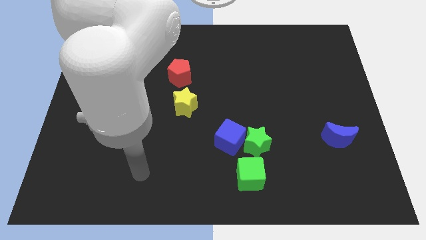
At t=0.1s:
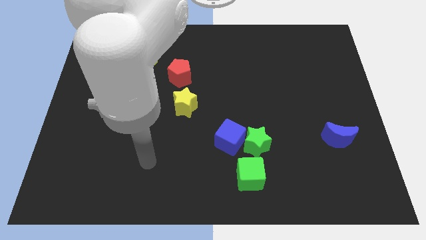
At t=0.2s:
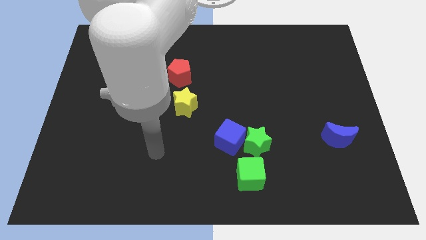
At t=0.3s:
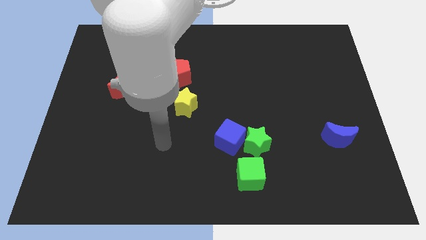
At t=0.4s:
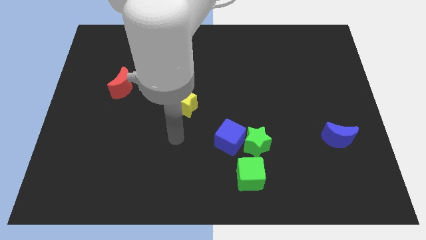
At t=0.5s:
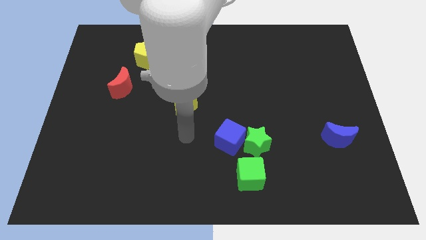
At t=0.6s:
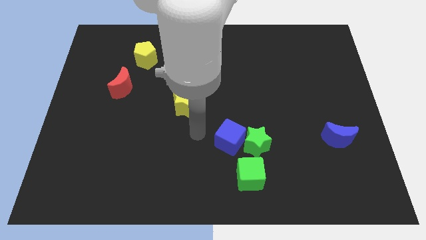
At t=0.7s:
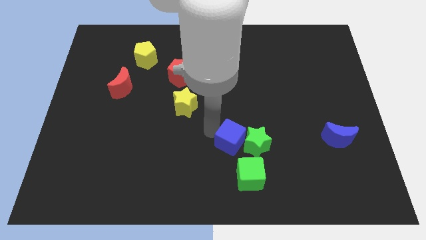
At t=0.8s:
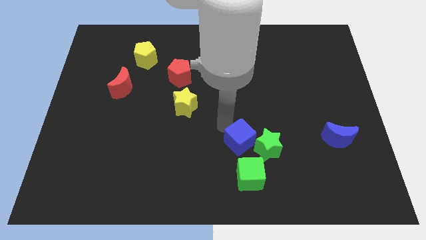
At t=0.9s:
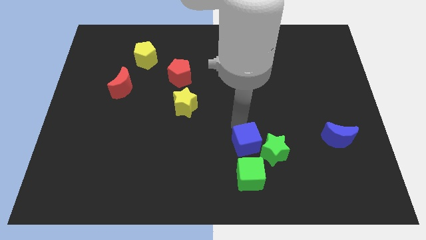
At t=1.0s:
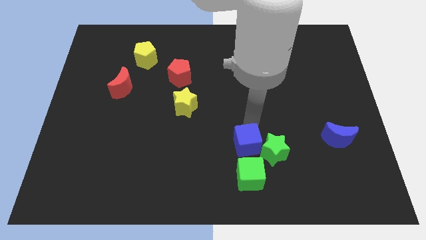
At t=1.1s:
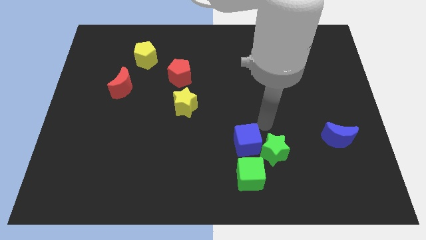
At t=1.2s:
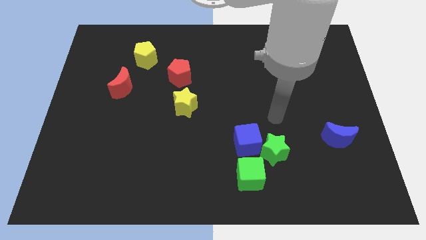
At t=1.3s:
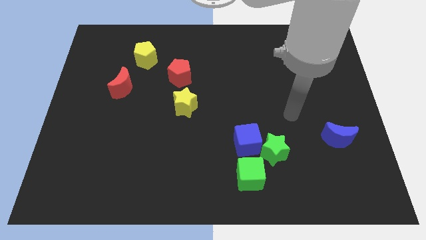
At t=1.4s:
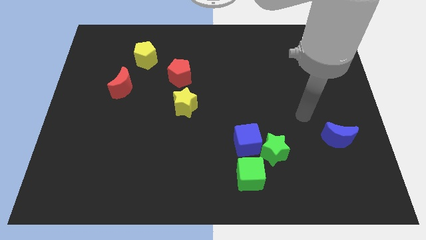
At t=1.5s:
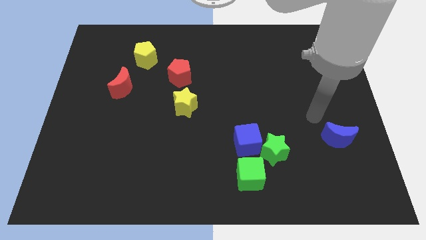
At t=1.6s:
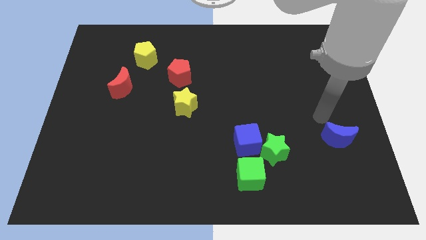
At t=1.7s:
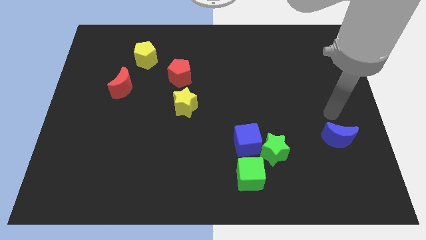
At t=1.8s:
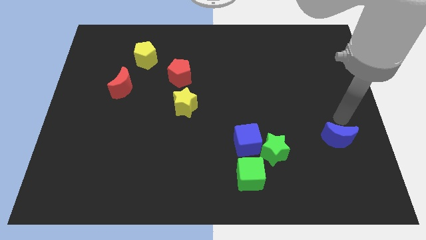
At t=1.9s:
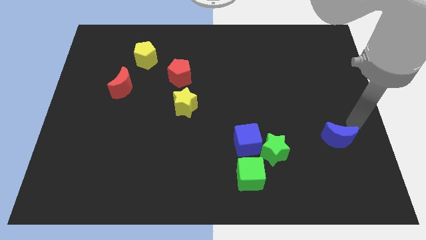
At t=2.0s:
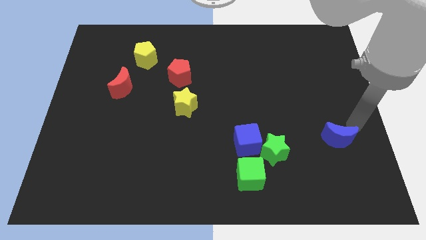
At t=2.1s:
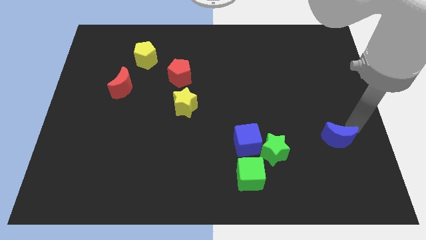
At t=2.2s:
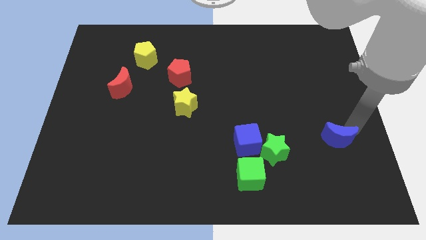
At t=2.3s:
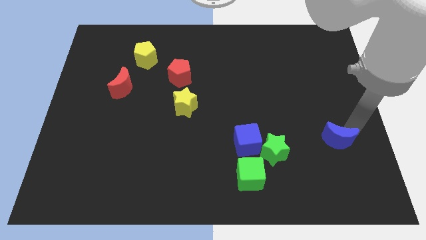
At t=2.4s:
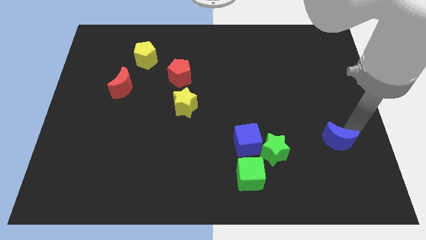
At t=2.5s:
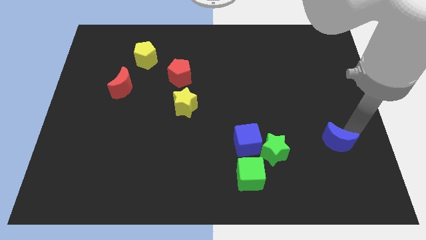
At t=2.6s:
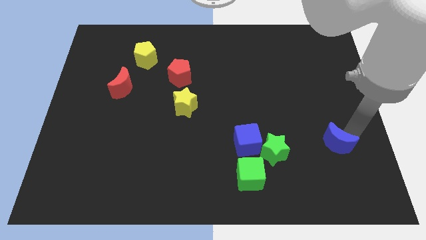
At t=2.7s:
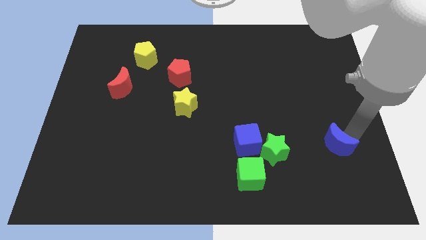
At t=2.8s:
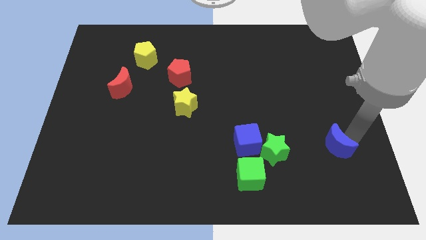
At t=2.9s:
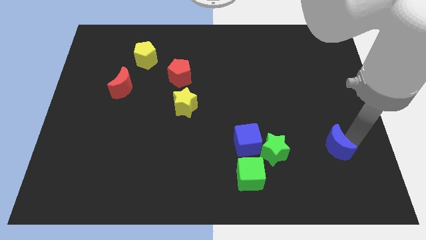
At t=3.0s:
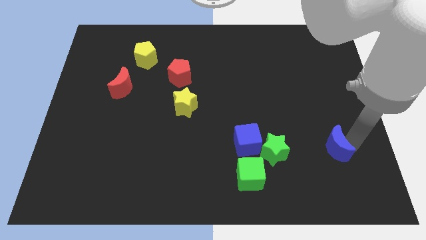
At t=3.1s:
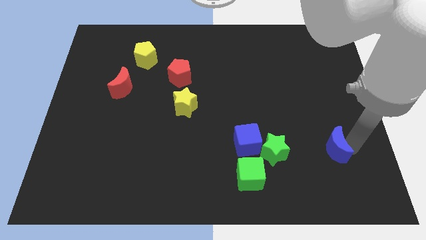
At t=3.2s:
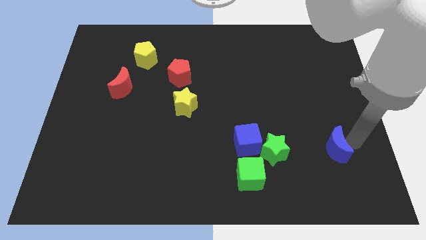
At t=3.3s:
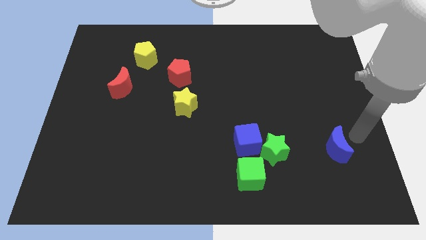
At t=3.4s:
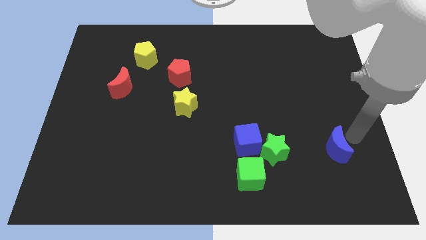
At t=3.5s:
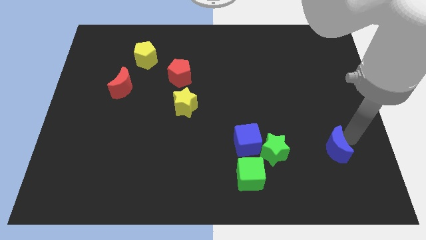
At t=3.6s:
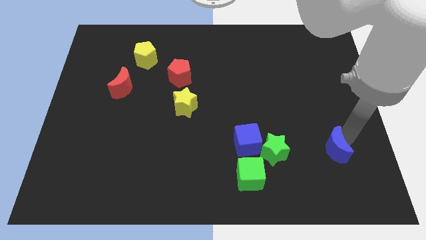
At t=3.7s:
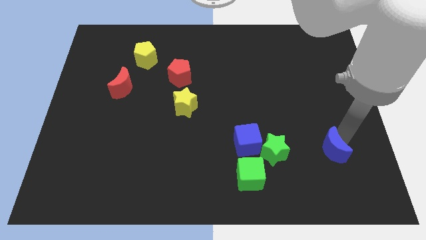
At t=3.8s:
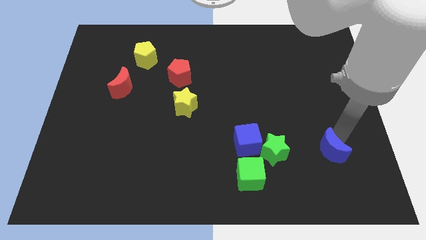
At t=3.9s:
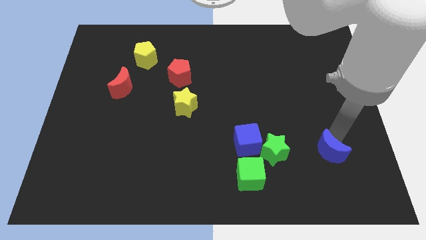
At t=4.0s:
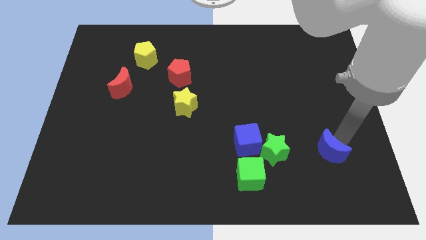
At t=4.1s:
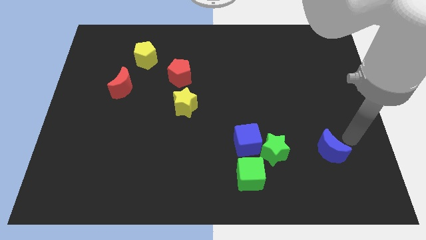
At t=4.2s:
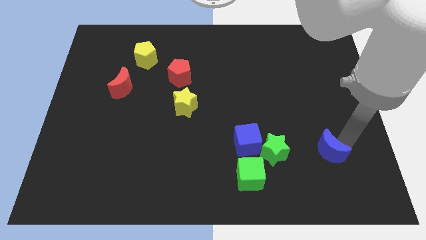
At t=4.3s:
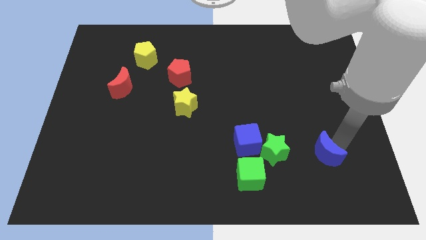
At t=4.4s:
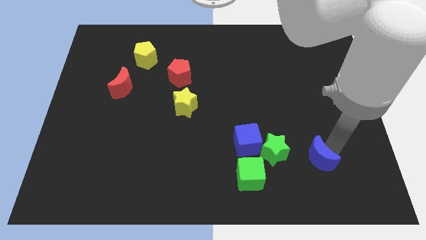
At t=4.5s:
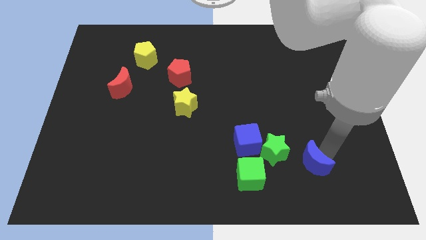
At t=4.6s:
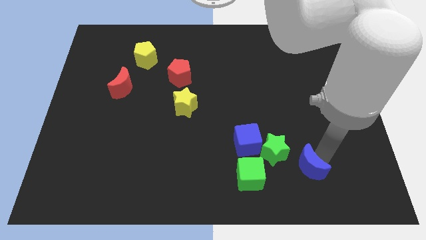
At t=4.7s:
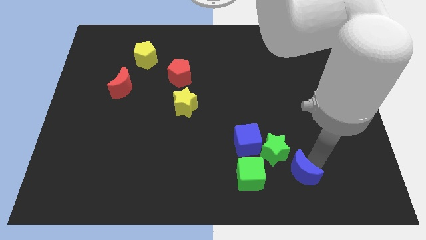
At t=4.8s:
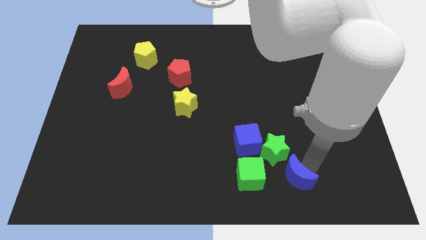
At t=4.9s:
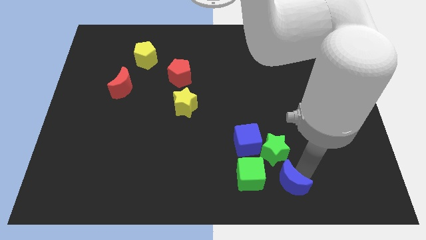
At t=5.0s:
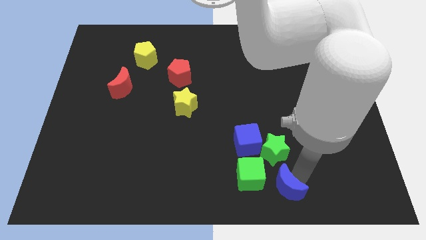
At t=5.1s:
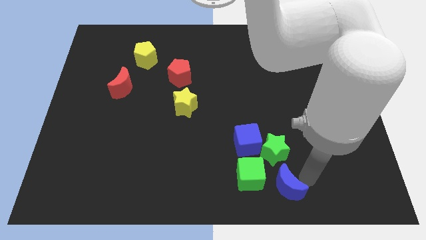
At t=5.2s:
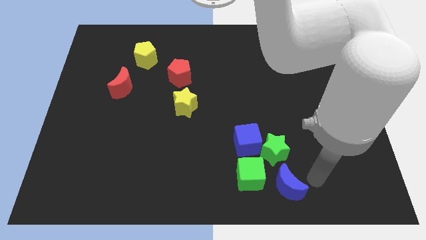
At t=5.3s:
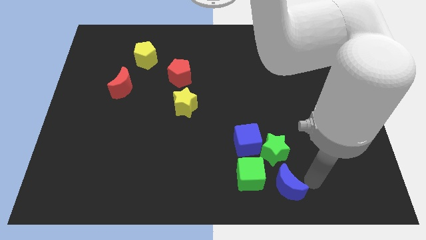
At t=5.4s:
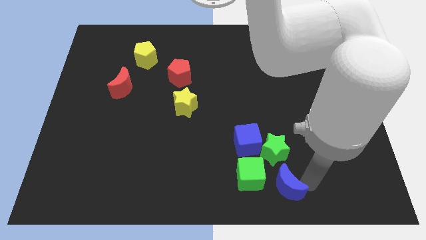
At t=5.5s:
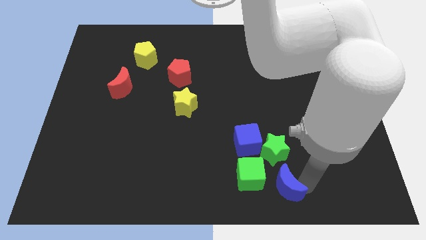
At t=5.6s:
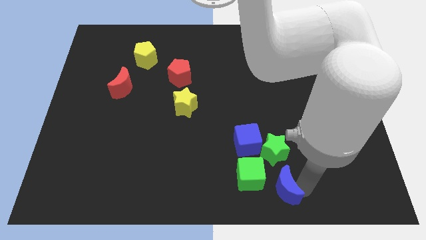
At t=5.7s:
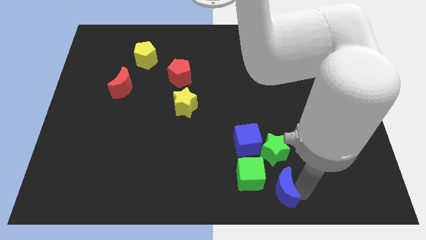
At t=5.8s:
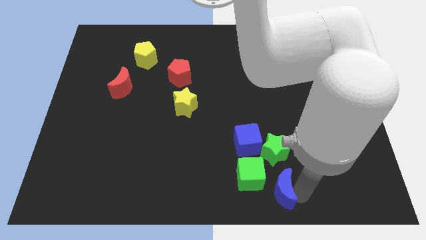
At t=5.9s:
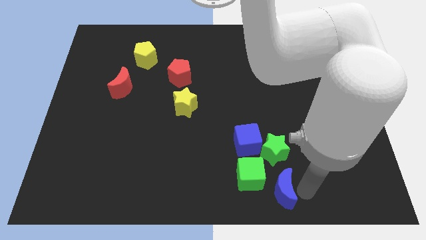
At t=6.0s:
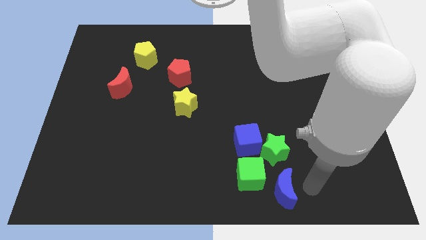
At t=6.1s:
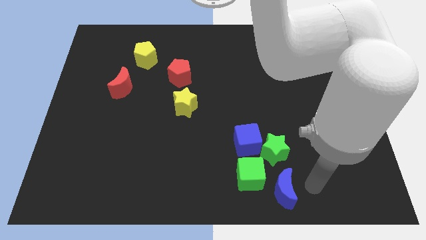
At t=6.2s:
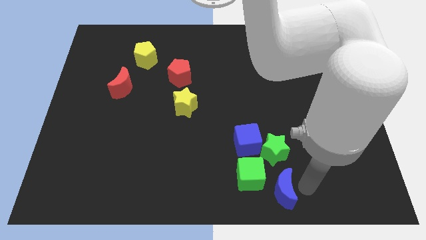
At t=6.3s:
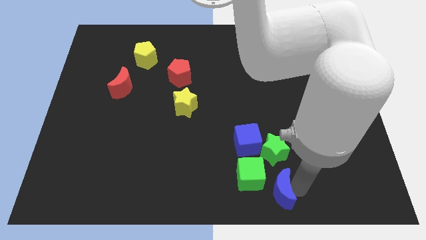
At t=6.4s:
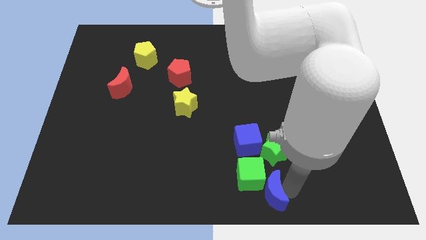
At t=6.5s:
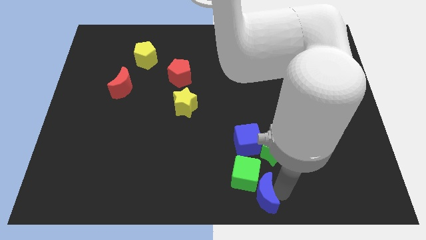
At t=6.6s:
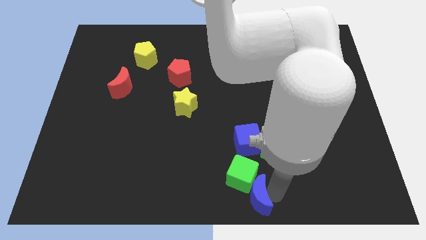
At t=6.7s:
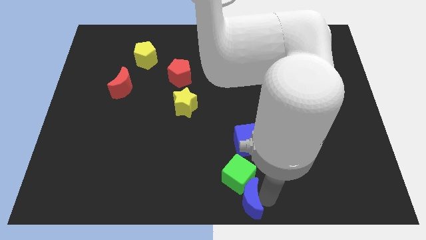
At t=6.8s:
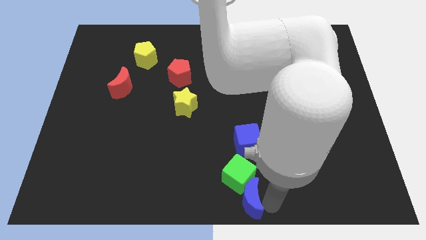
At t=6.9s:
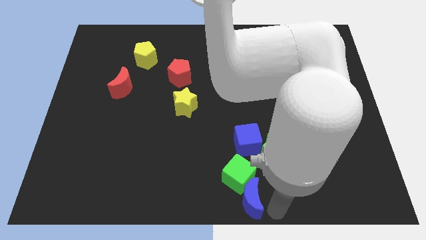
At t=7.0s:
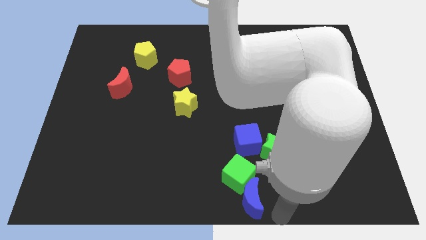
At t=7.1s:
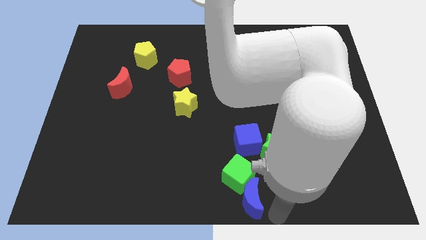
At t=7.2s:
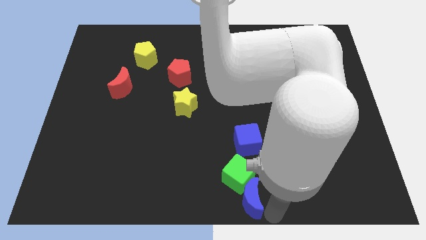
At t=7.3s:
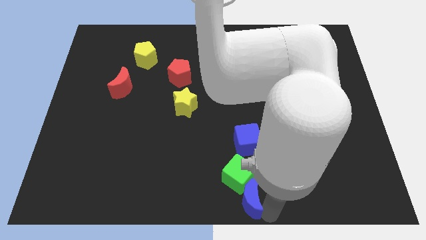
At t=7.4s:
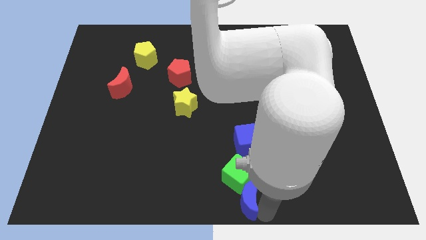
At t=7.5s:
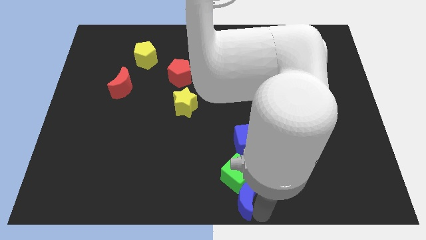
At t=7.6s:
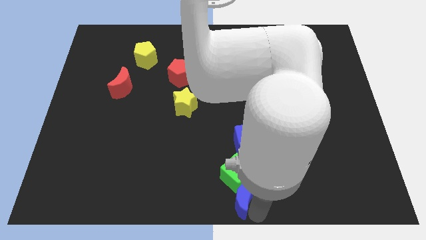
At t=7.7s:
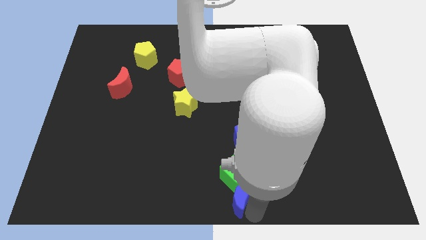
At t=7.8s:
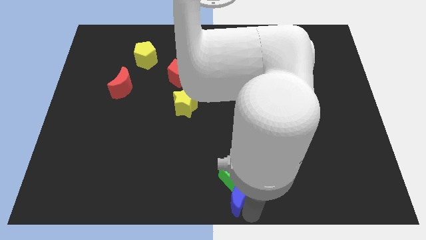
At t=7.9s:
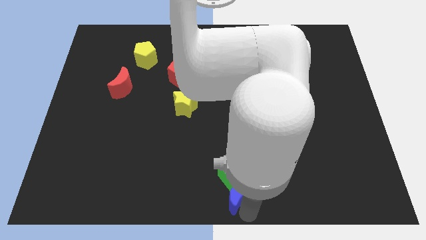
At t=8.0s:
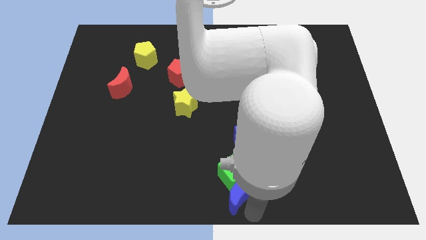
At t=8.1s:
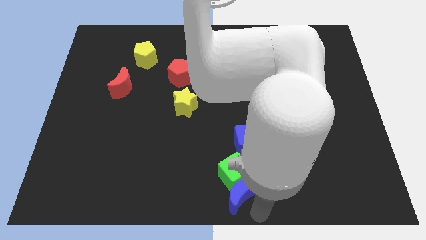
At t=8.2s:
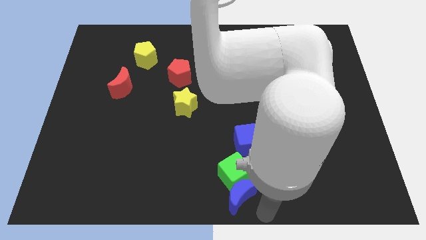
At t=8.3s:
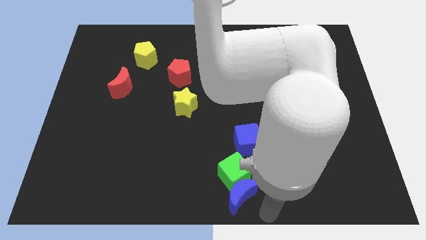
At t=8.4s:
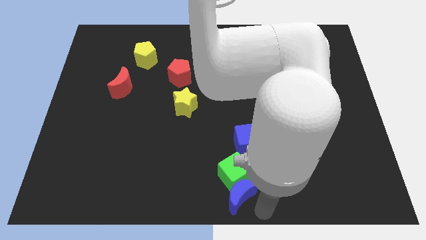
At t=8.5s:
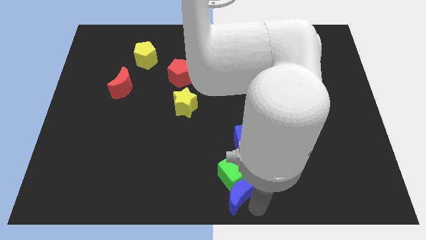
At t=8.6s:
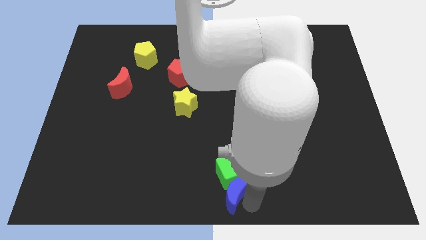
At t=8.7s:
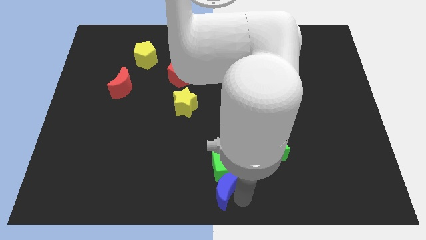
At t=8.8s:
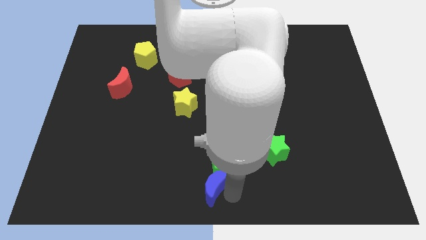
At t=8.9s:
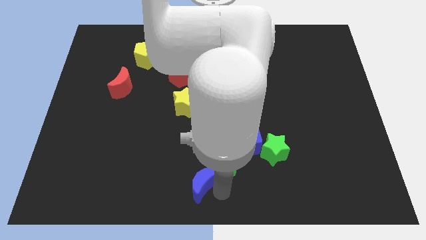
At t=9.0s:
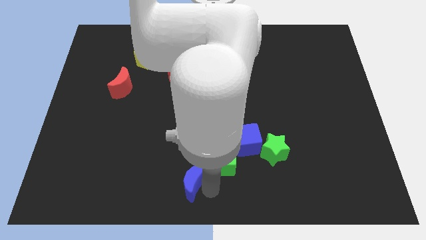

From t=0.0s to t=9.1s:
move the blue moon to the left of the green cube
